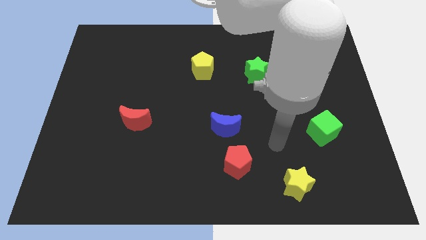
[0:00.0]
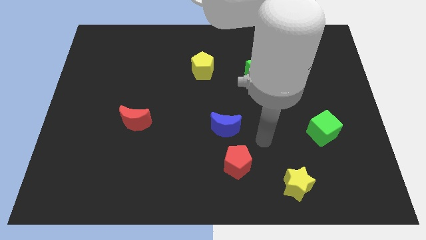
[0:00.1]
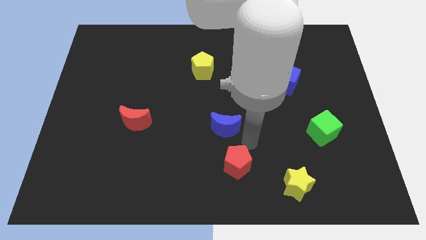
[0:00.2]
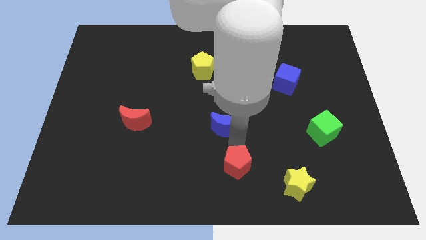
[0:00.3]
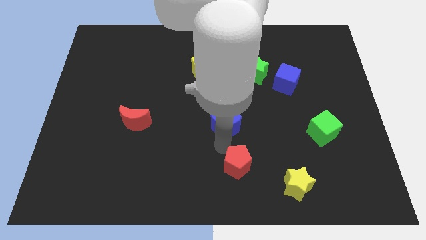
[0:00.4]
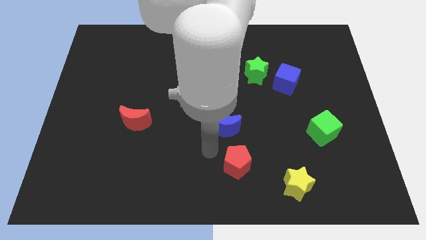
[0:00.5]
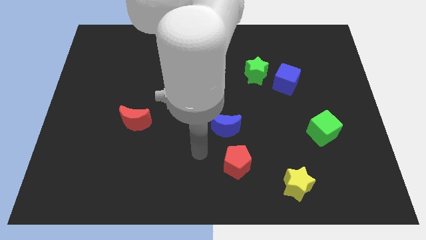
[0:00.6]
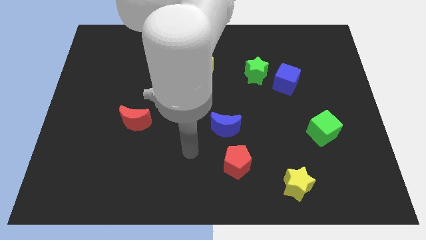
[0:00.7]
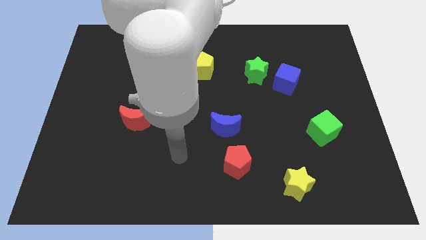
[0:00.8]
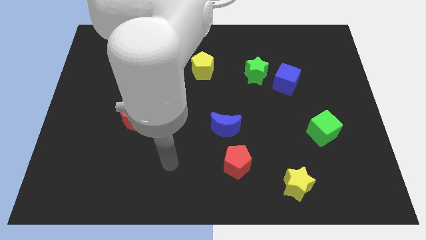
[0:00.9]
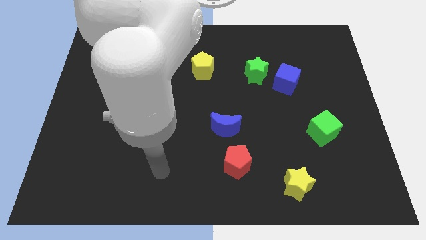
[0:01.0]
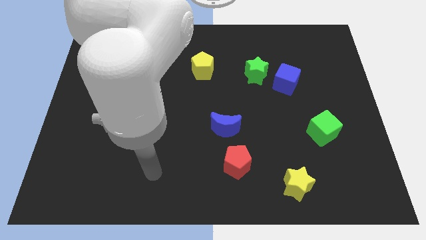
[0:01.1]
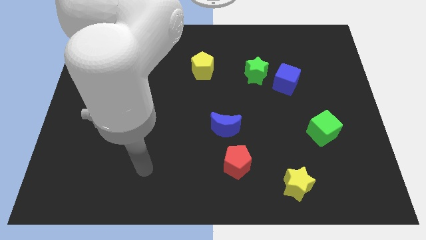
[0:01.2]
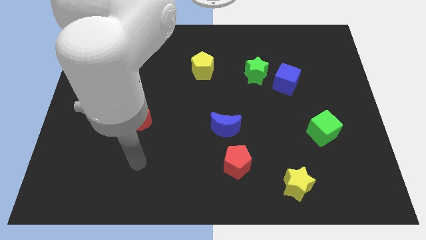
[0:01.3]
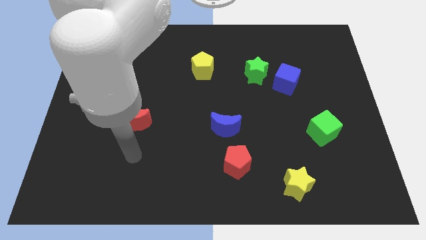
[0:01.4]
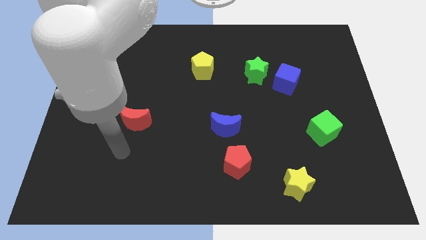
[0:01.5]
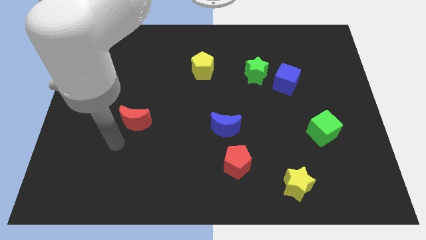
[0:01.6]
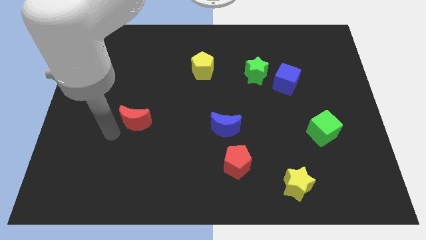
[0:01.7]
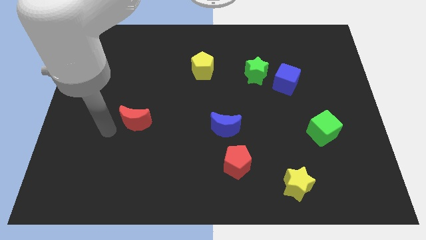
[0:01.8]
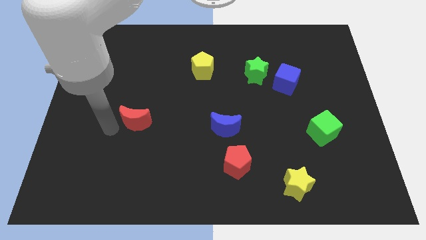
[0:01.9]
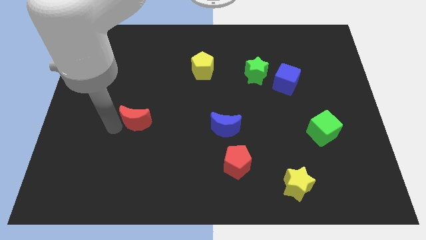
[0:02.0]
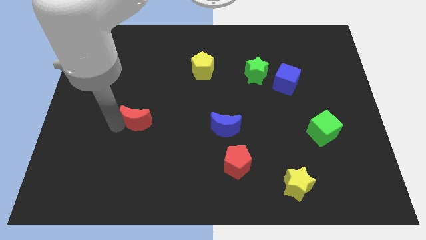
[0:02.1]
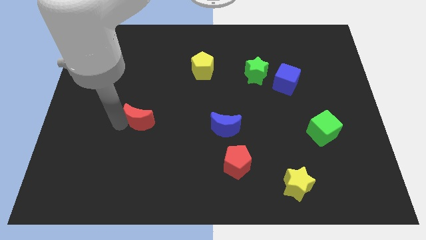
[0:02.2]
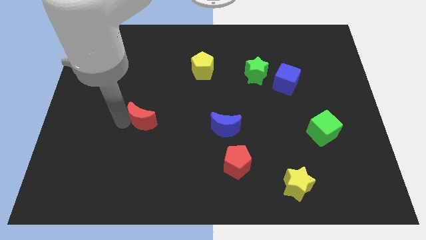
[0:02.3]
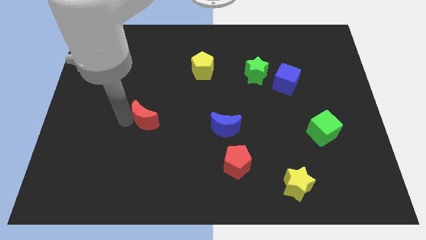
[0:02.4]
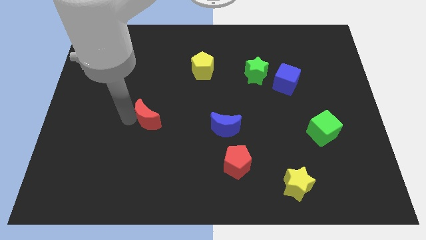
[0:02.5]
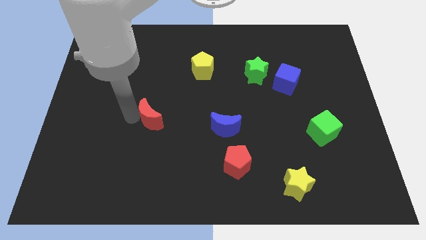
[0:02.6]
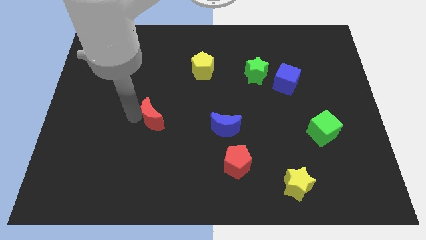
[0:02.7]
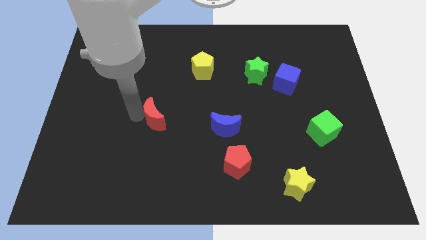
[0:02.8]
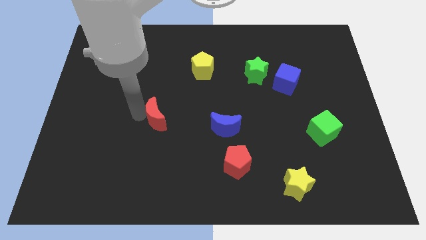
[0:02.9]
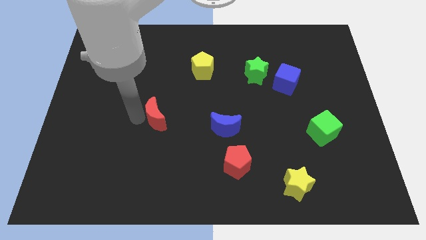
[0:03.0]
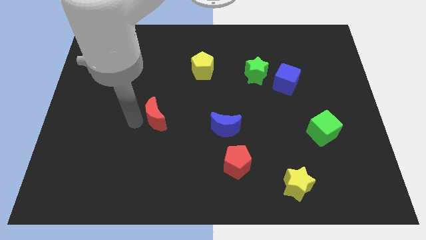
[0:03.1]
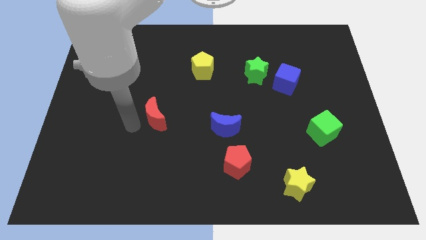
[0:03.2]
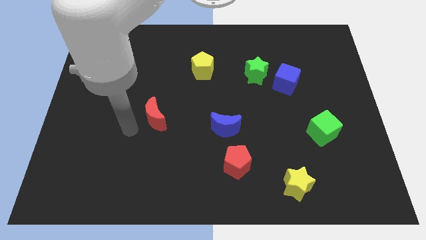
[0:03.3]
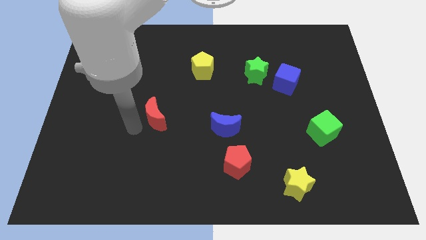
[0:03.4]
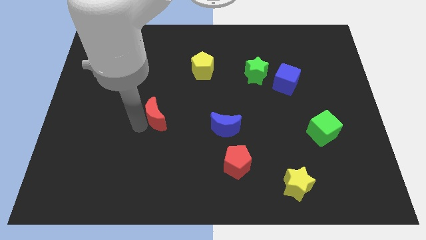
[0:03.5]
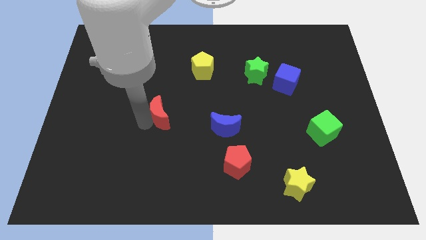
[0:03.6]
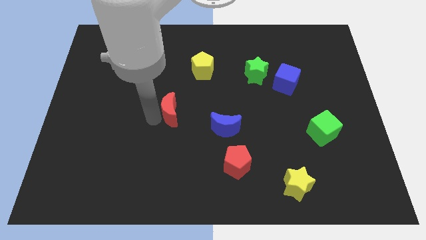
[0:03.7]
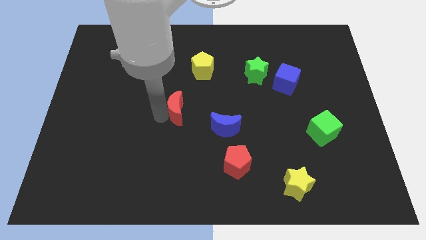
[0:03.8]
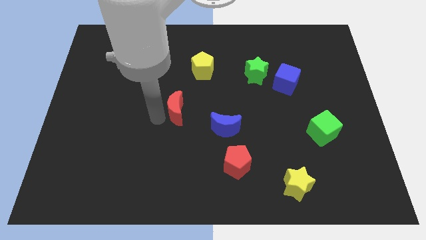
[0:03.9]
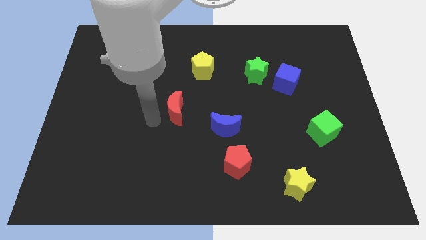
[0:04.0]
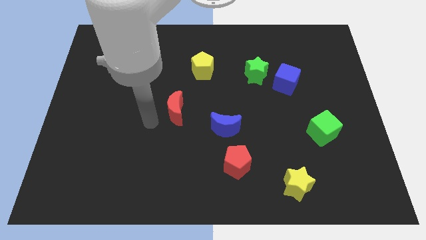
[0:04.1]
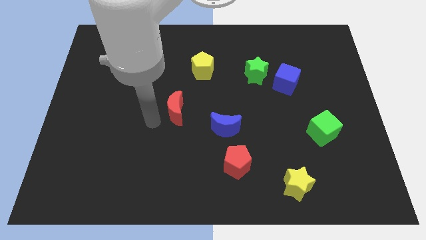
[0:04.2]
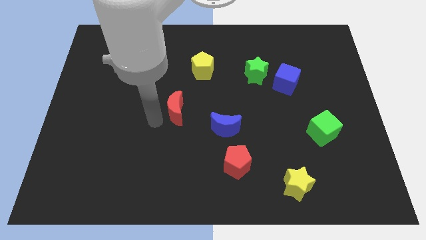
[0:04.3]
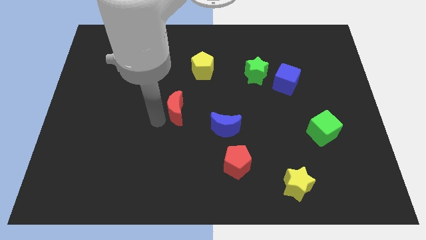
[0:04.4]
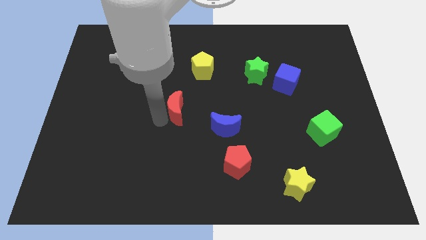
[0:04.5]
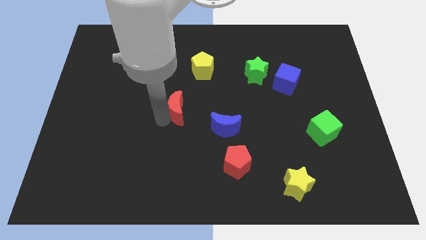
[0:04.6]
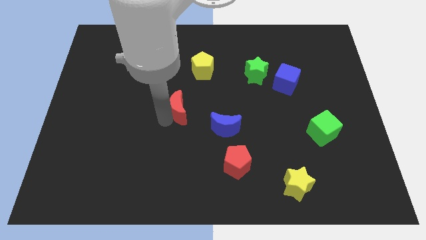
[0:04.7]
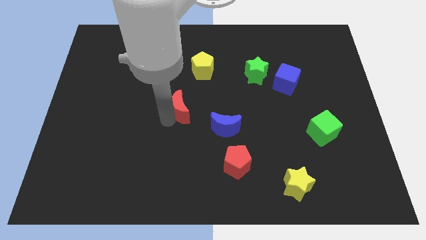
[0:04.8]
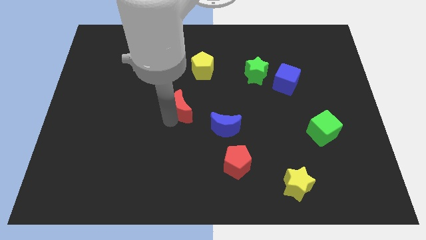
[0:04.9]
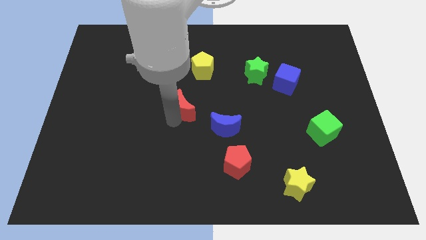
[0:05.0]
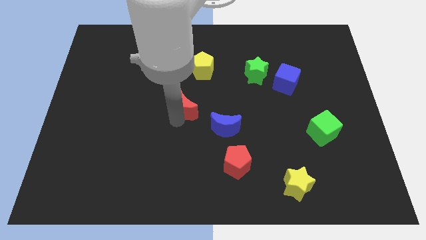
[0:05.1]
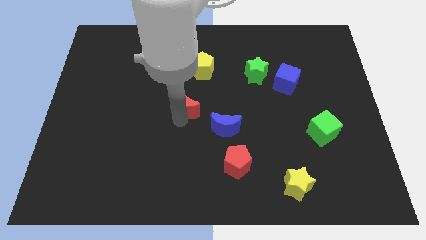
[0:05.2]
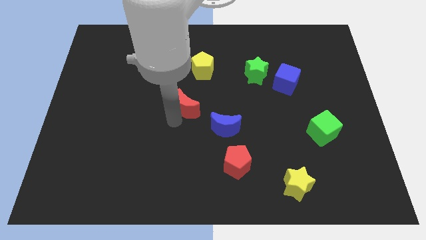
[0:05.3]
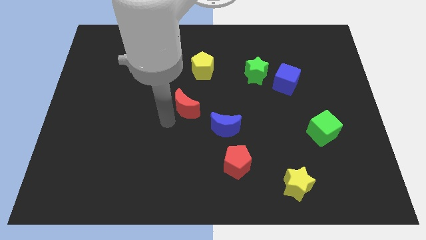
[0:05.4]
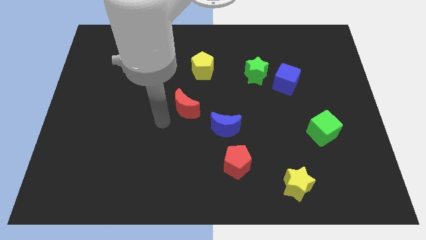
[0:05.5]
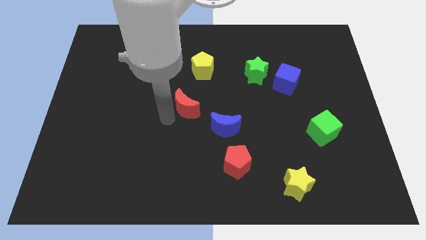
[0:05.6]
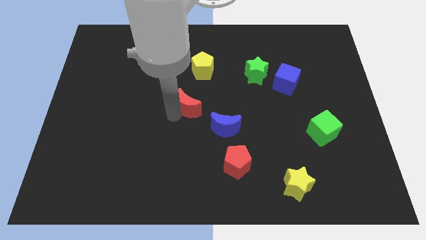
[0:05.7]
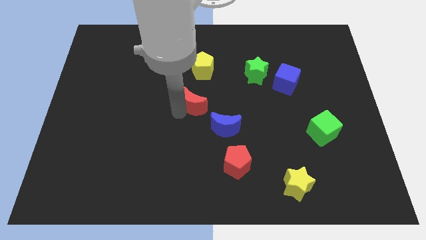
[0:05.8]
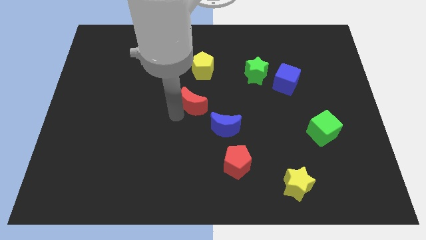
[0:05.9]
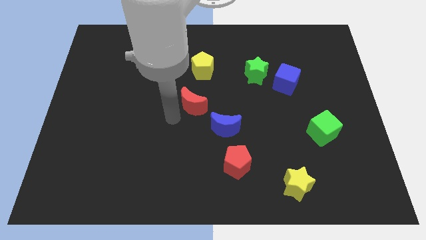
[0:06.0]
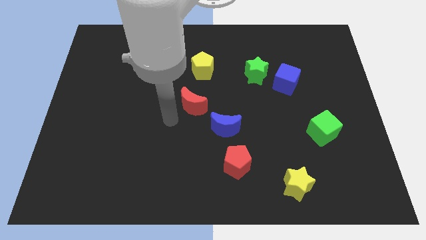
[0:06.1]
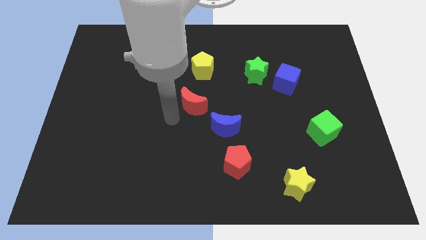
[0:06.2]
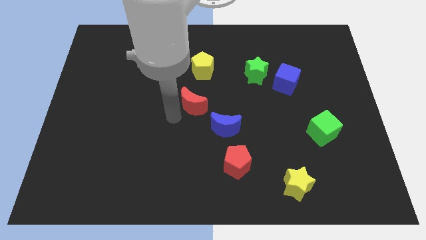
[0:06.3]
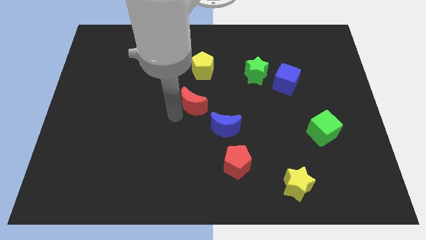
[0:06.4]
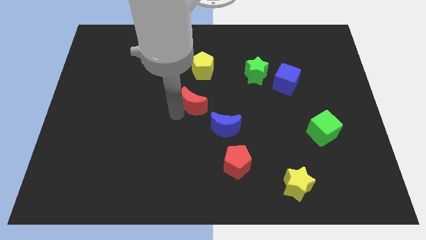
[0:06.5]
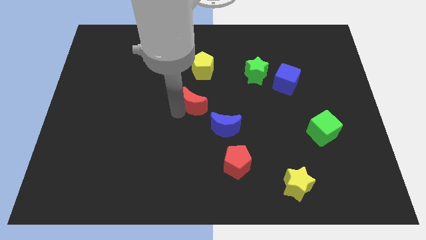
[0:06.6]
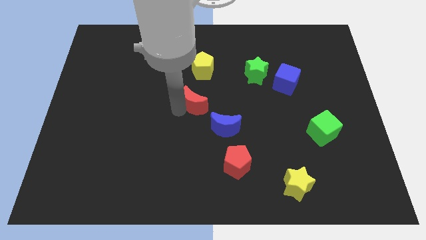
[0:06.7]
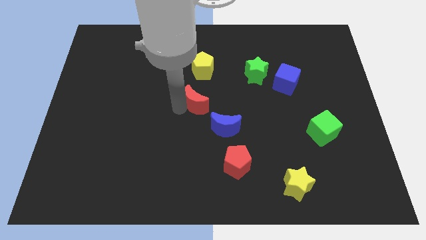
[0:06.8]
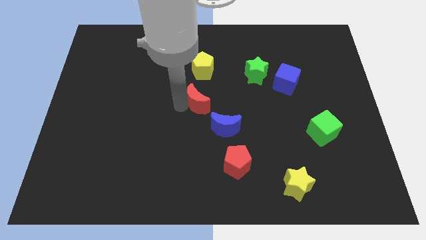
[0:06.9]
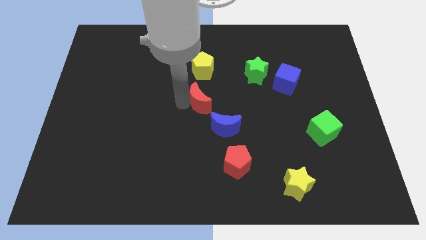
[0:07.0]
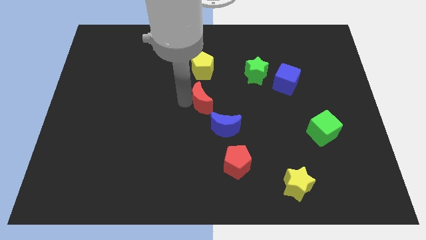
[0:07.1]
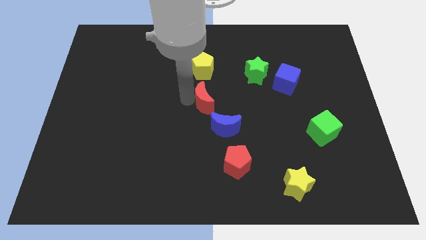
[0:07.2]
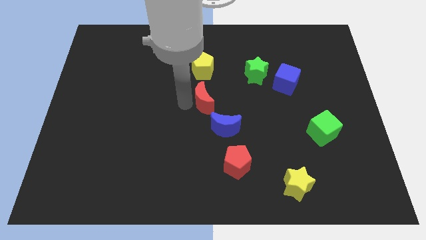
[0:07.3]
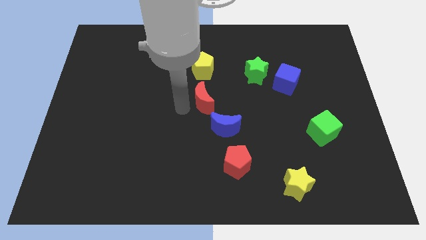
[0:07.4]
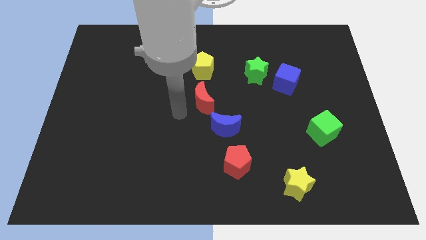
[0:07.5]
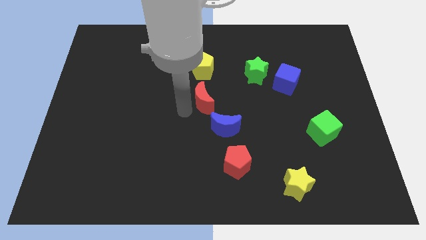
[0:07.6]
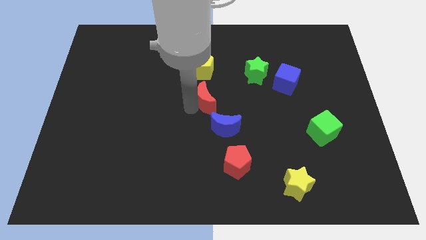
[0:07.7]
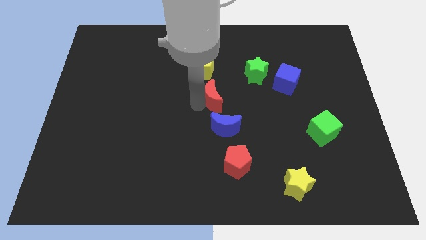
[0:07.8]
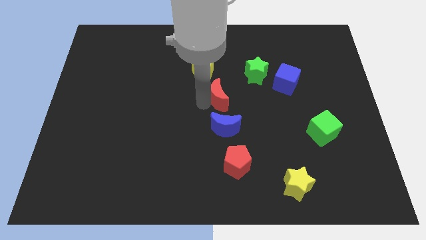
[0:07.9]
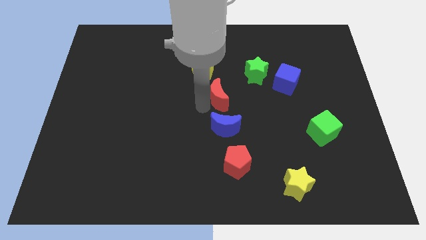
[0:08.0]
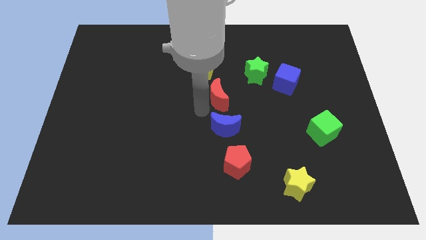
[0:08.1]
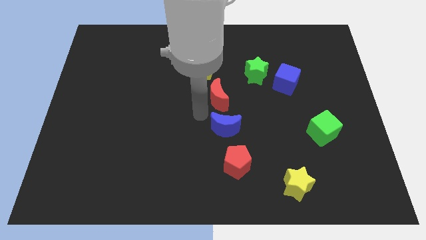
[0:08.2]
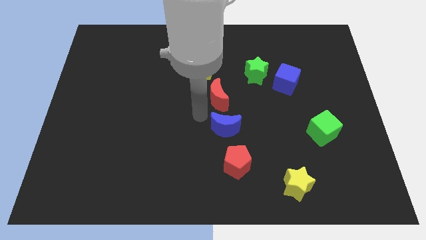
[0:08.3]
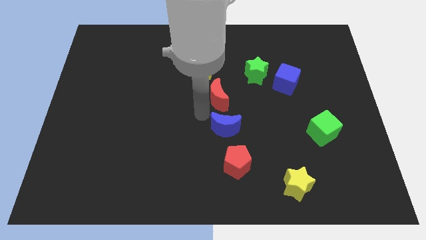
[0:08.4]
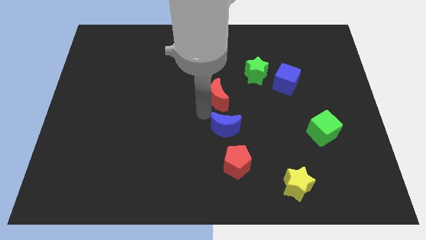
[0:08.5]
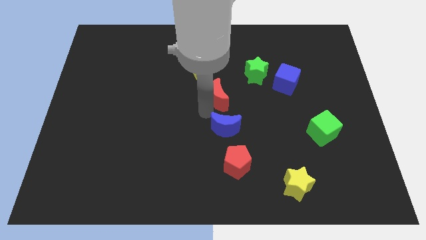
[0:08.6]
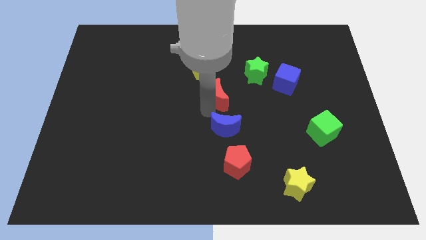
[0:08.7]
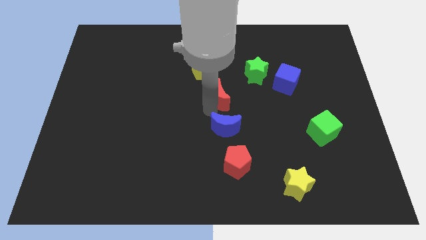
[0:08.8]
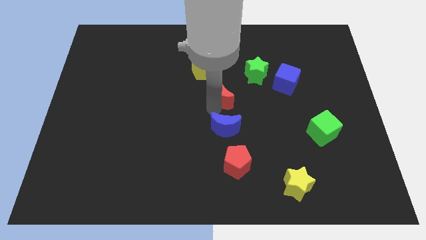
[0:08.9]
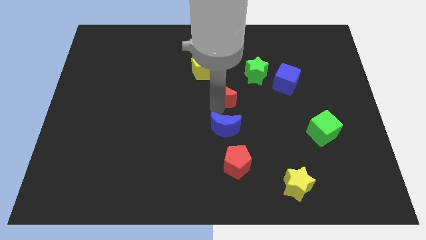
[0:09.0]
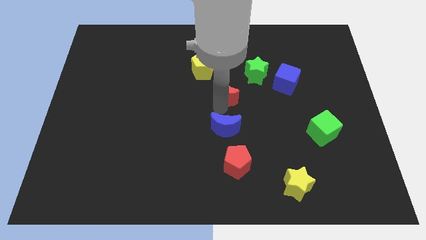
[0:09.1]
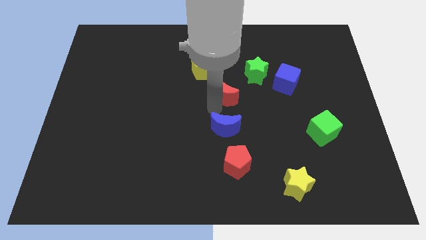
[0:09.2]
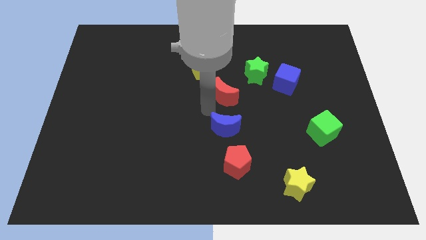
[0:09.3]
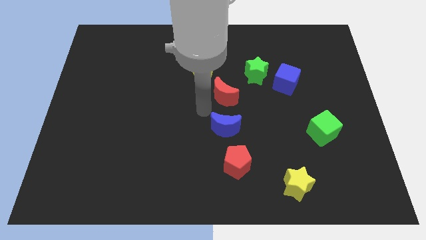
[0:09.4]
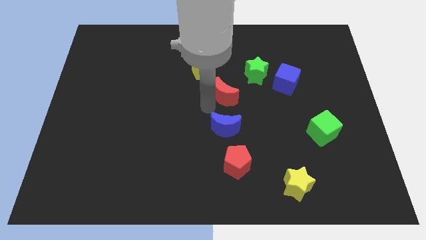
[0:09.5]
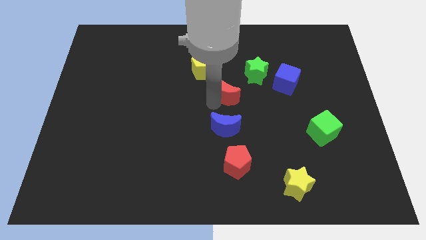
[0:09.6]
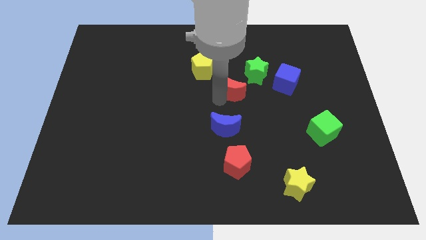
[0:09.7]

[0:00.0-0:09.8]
put the red moon left of the blue cube
